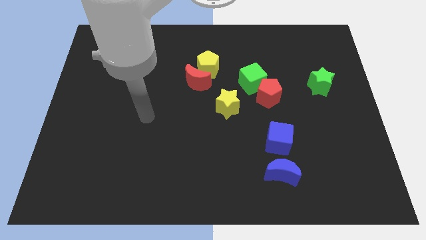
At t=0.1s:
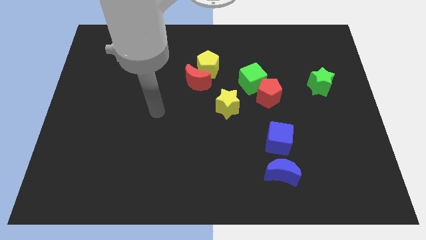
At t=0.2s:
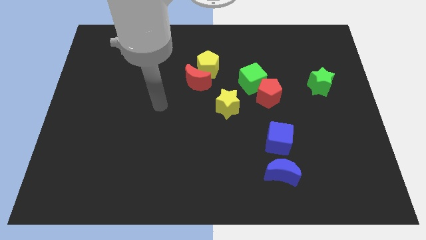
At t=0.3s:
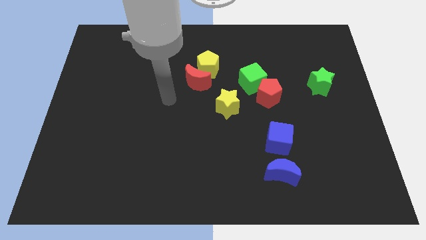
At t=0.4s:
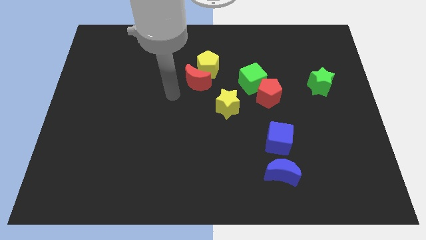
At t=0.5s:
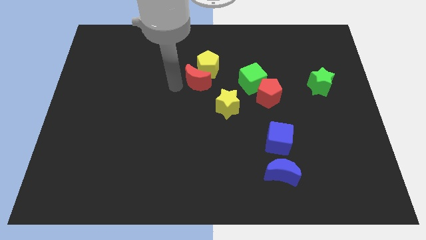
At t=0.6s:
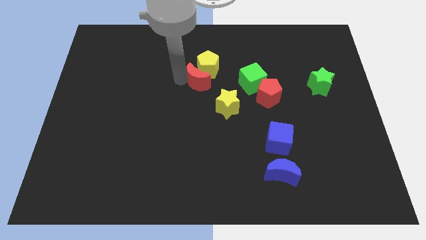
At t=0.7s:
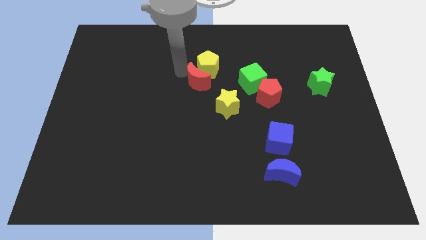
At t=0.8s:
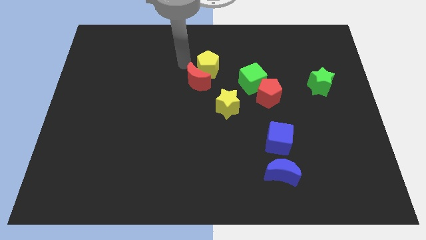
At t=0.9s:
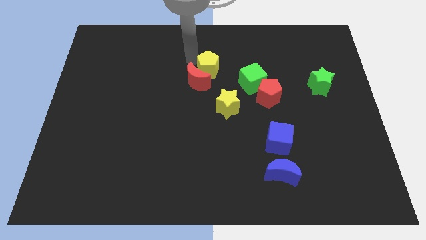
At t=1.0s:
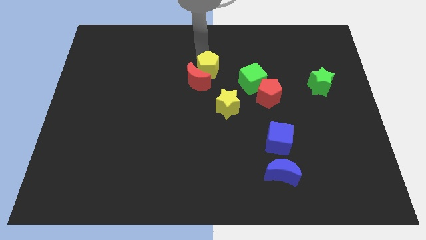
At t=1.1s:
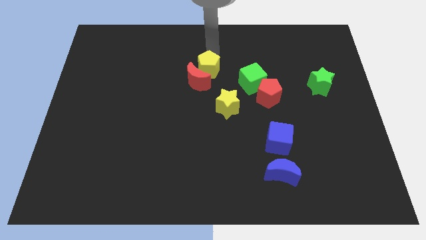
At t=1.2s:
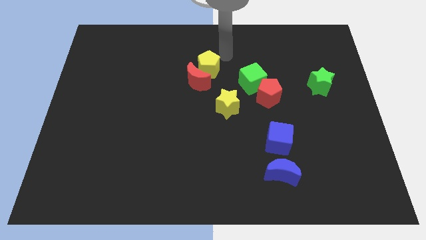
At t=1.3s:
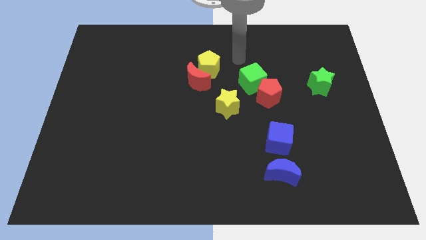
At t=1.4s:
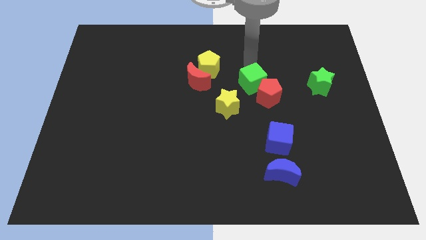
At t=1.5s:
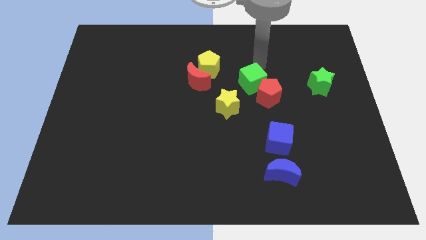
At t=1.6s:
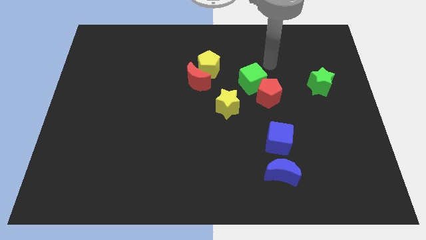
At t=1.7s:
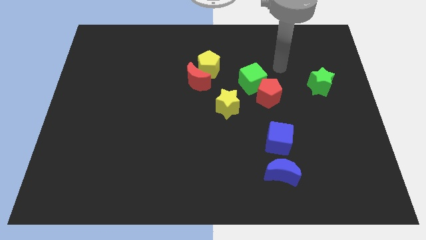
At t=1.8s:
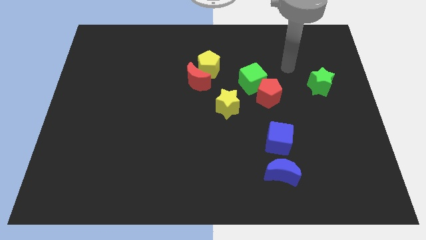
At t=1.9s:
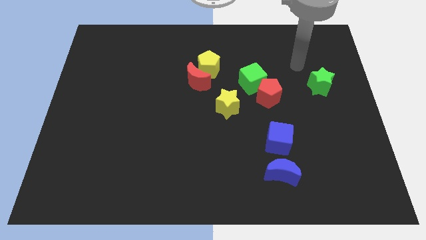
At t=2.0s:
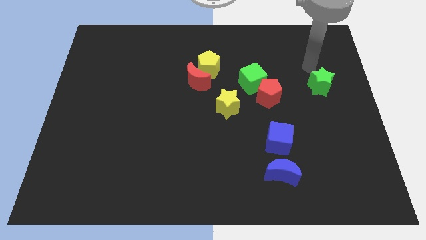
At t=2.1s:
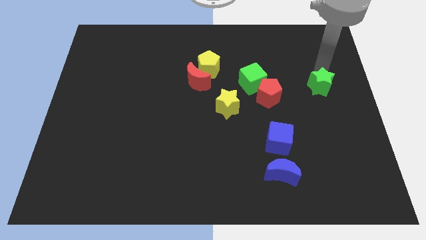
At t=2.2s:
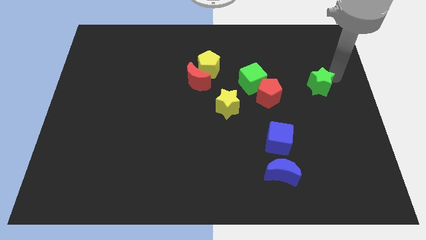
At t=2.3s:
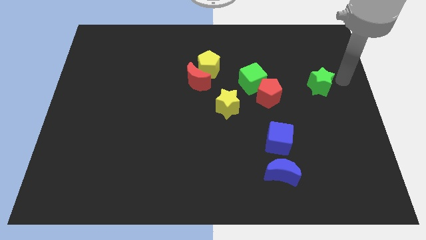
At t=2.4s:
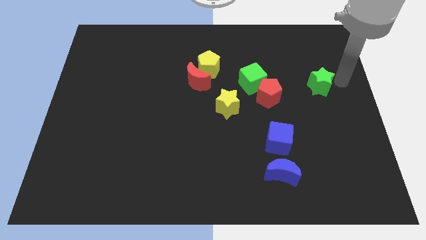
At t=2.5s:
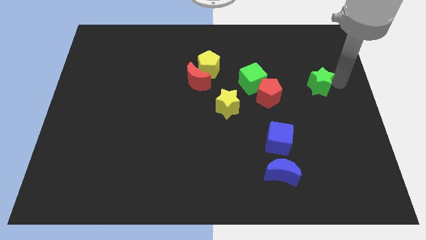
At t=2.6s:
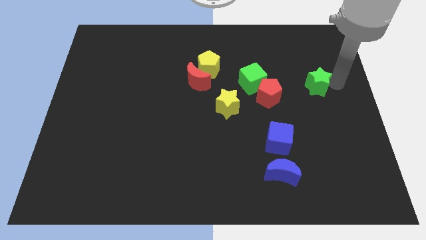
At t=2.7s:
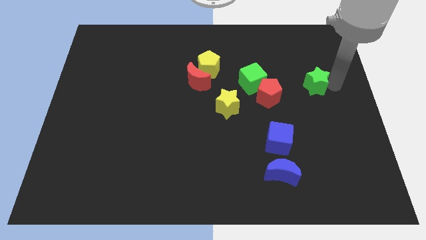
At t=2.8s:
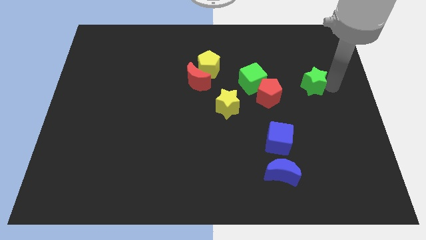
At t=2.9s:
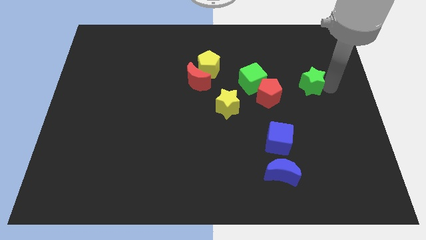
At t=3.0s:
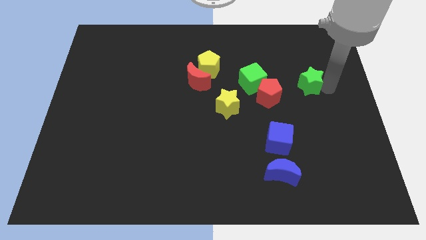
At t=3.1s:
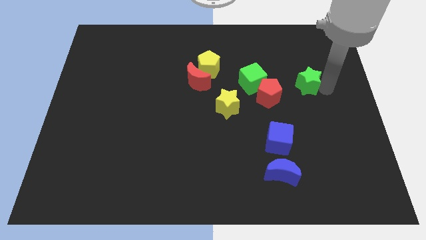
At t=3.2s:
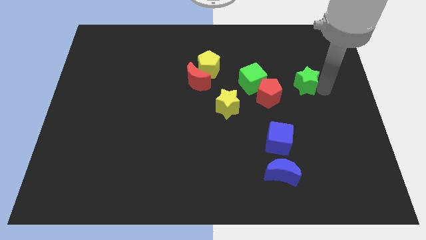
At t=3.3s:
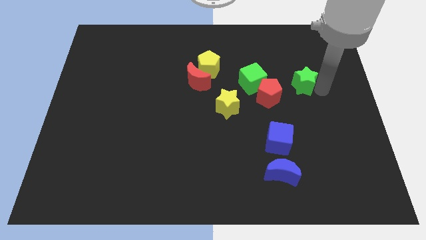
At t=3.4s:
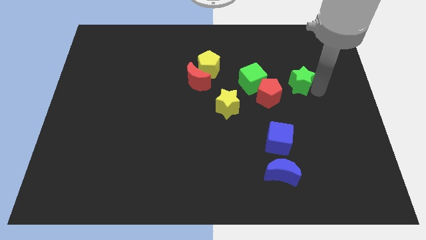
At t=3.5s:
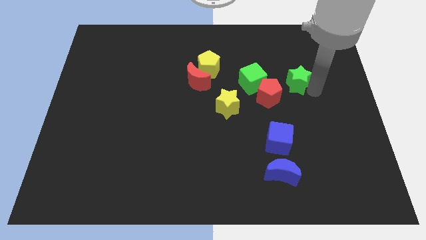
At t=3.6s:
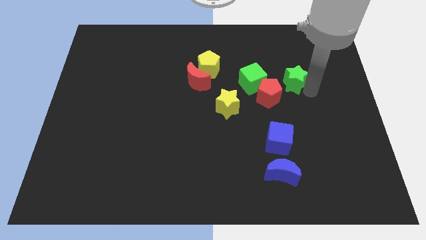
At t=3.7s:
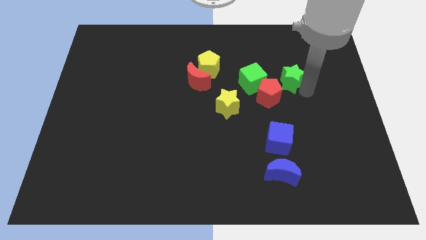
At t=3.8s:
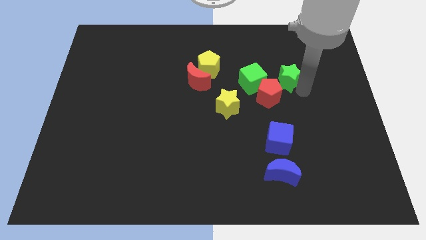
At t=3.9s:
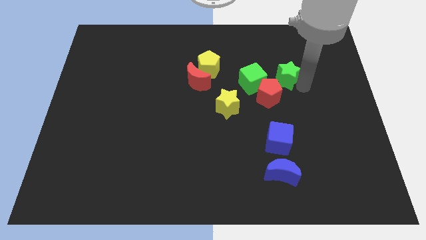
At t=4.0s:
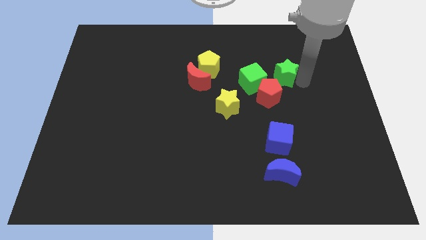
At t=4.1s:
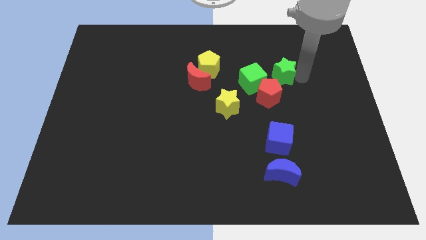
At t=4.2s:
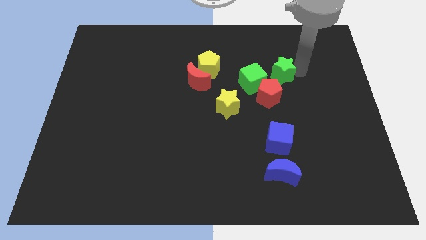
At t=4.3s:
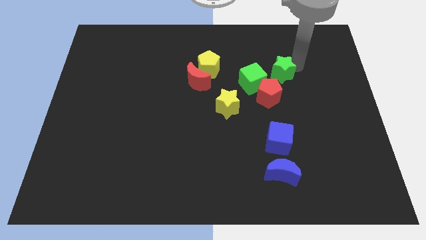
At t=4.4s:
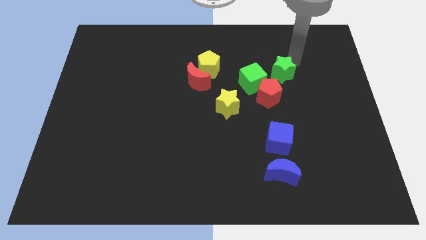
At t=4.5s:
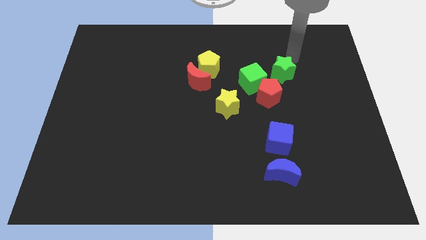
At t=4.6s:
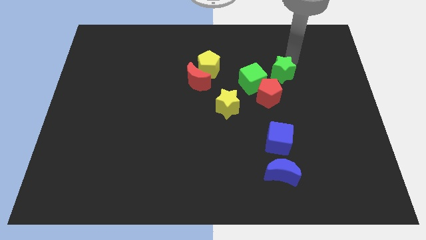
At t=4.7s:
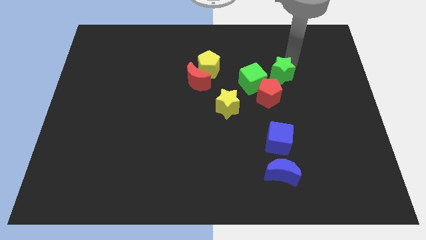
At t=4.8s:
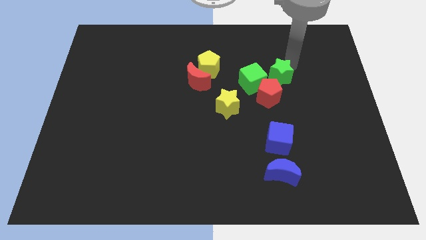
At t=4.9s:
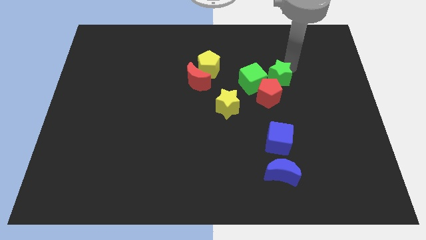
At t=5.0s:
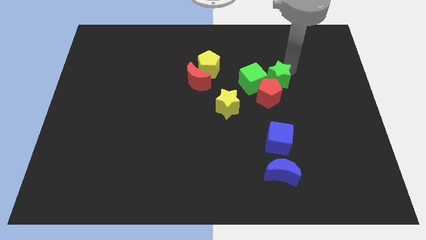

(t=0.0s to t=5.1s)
move the green star to the red pentagon

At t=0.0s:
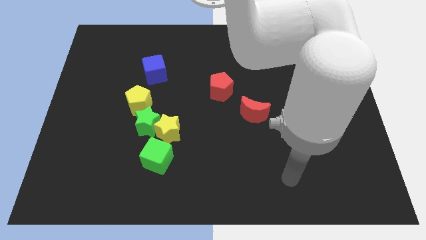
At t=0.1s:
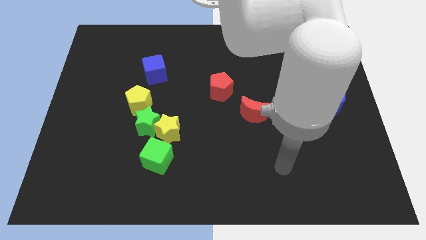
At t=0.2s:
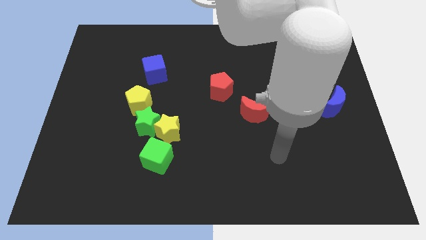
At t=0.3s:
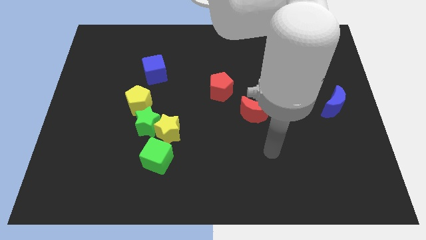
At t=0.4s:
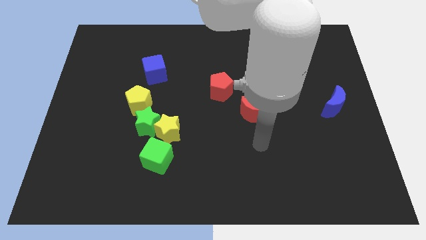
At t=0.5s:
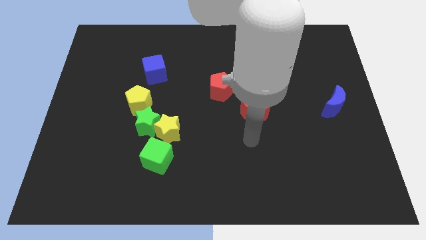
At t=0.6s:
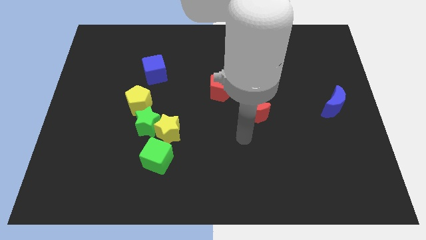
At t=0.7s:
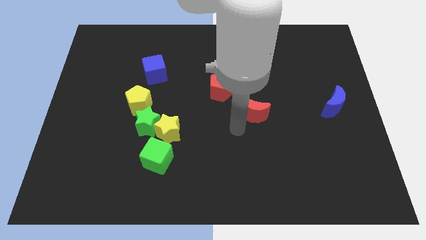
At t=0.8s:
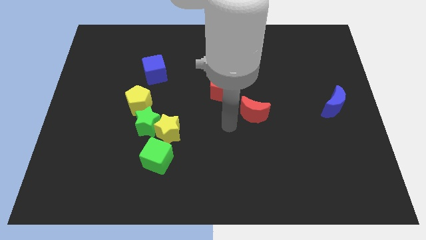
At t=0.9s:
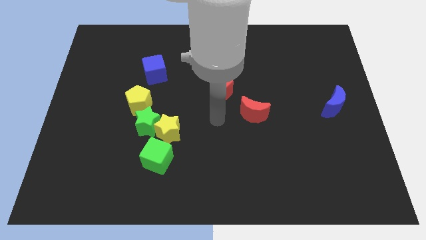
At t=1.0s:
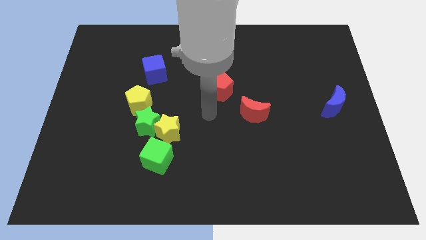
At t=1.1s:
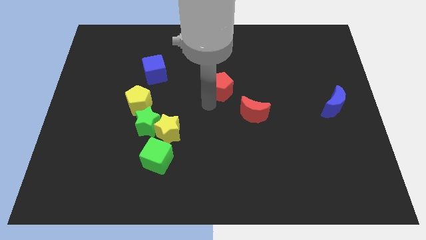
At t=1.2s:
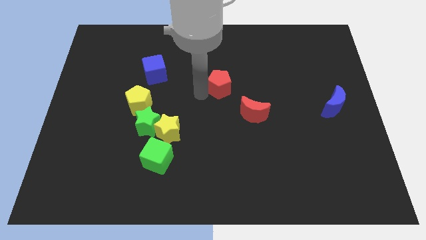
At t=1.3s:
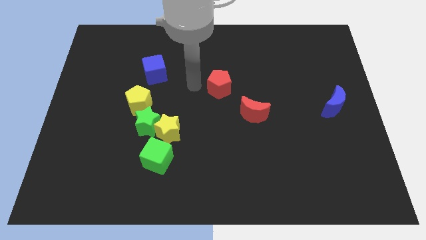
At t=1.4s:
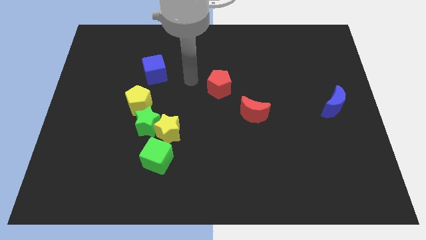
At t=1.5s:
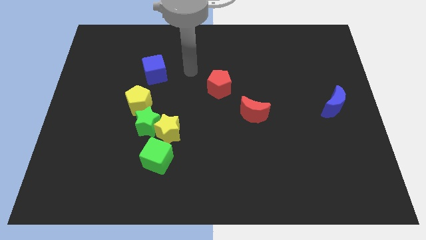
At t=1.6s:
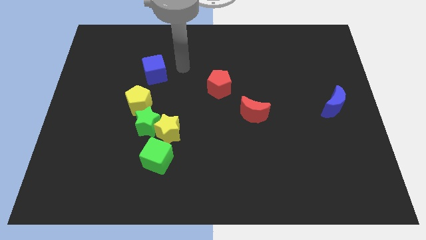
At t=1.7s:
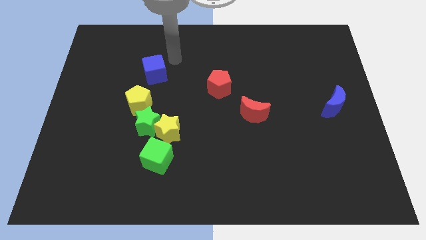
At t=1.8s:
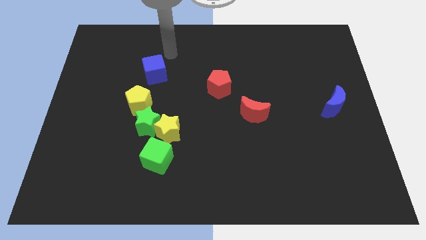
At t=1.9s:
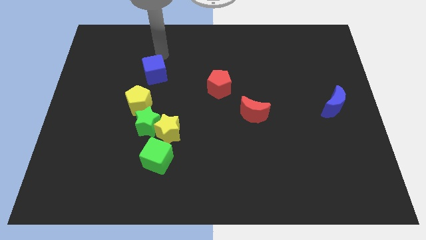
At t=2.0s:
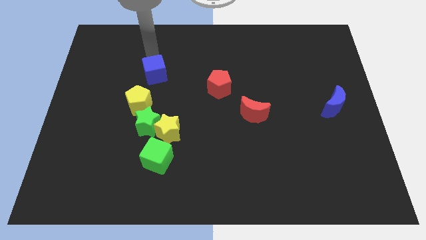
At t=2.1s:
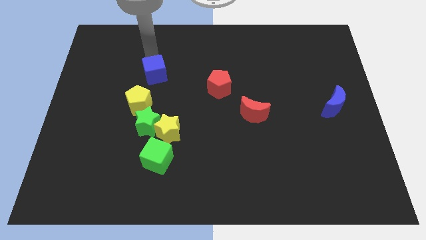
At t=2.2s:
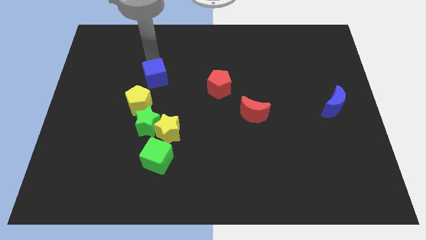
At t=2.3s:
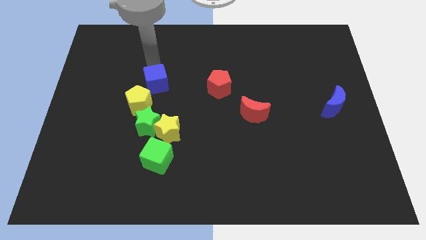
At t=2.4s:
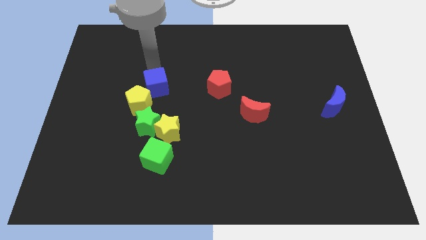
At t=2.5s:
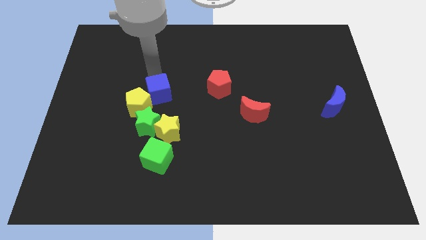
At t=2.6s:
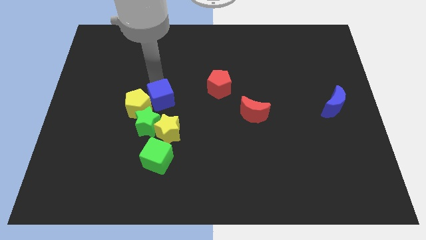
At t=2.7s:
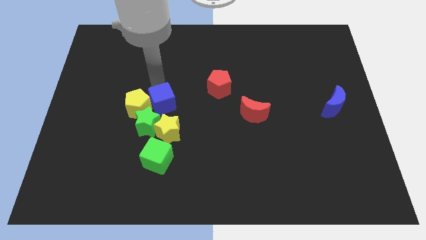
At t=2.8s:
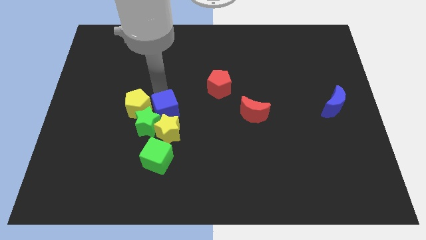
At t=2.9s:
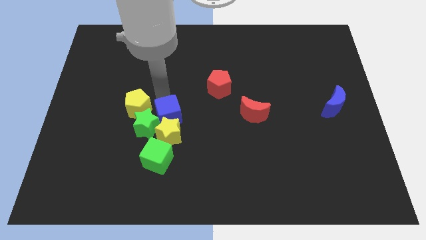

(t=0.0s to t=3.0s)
put the blue cube towards the yellow star
